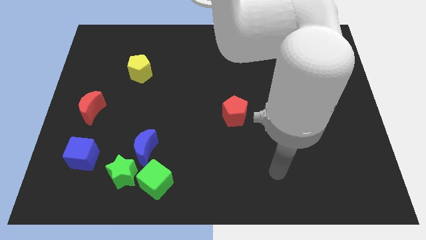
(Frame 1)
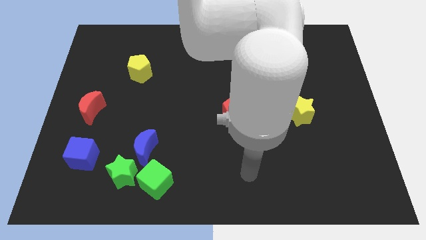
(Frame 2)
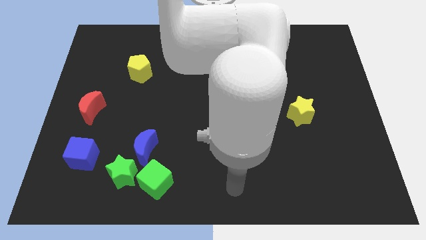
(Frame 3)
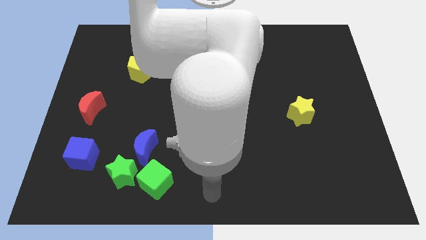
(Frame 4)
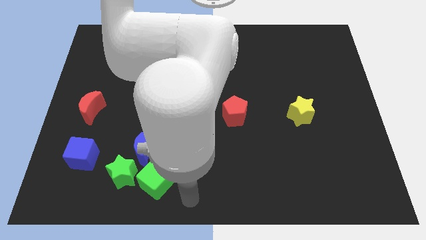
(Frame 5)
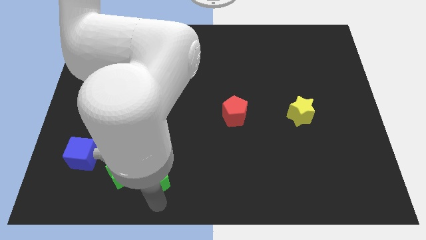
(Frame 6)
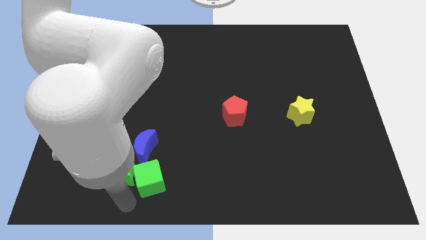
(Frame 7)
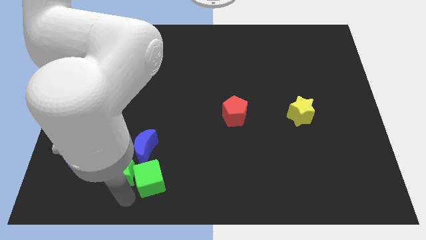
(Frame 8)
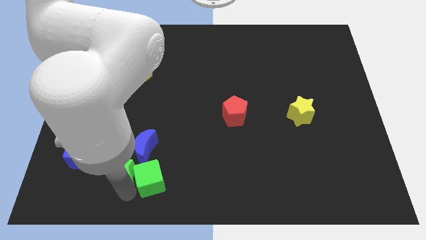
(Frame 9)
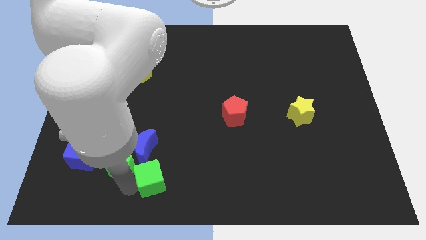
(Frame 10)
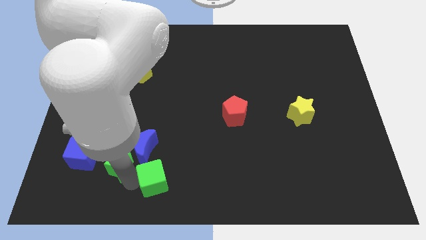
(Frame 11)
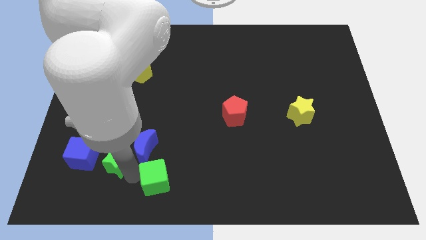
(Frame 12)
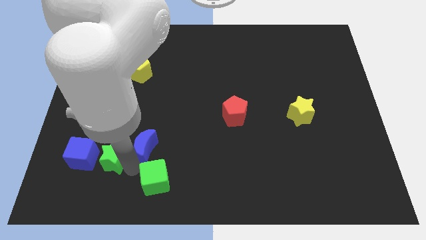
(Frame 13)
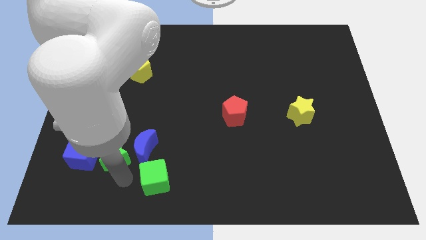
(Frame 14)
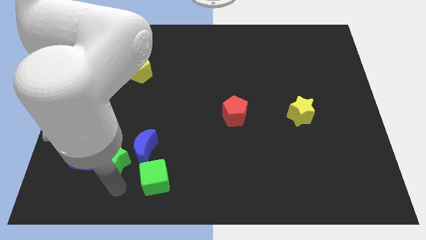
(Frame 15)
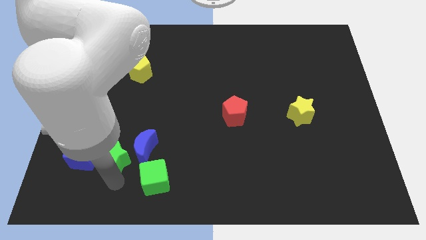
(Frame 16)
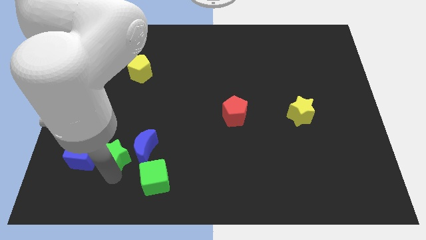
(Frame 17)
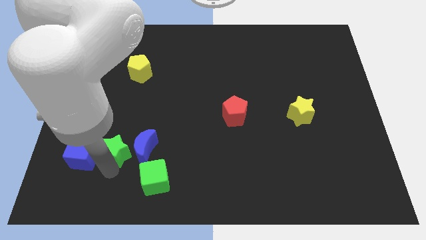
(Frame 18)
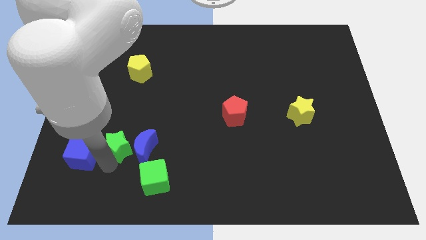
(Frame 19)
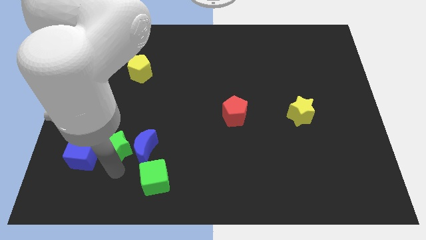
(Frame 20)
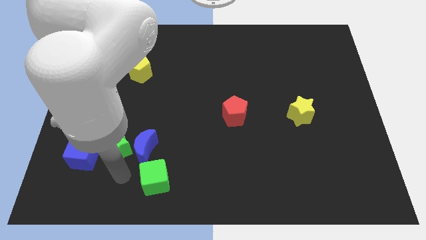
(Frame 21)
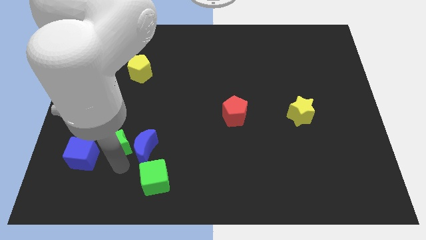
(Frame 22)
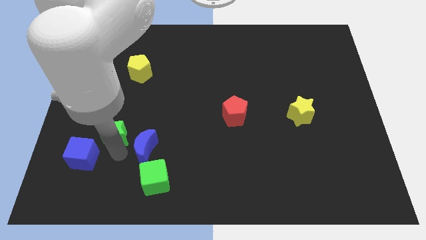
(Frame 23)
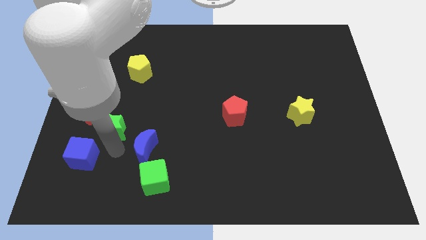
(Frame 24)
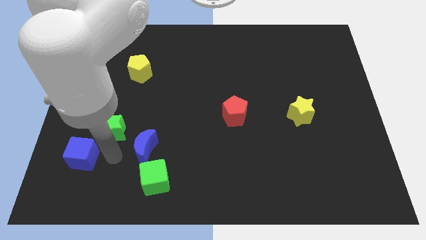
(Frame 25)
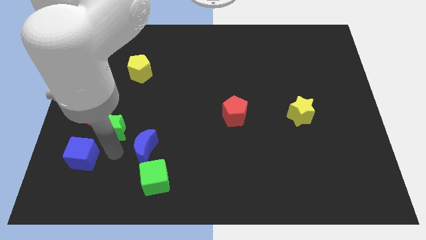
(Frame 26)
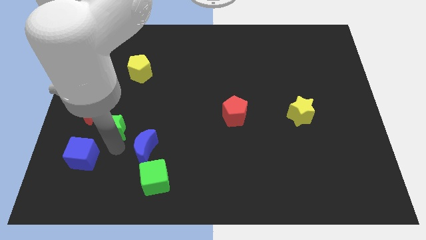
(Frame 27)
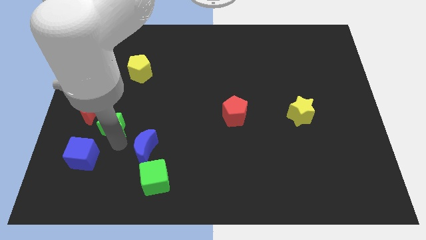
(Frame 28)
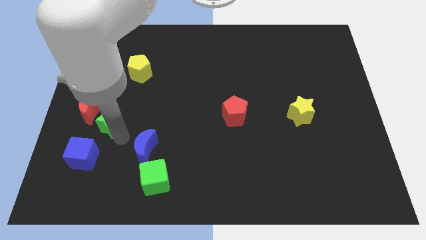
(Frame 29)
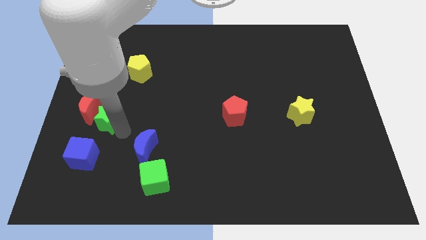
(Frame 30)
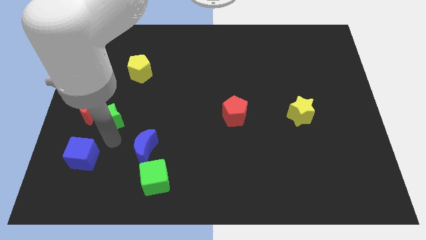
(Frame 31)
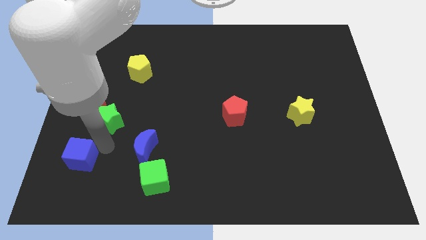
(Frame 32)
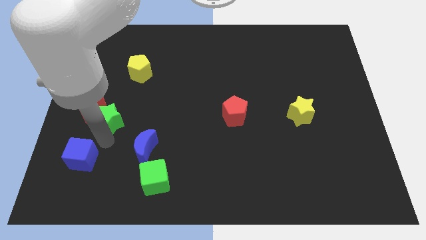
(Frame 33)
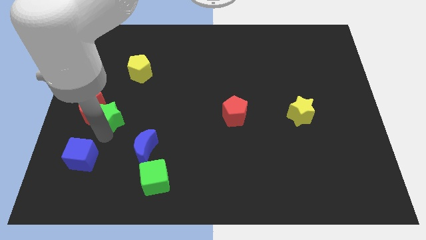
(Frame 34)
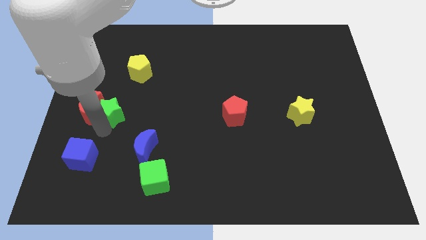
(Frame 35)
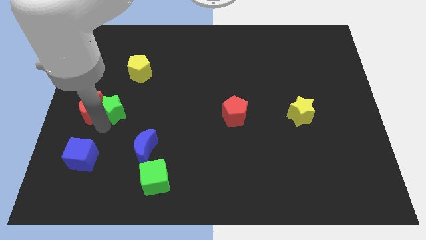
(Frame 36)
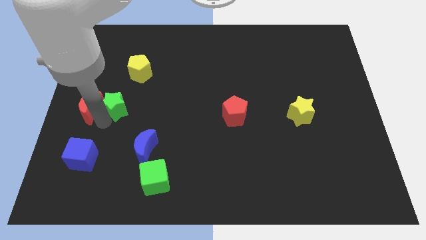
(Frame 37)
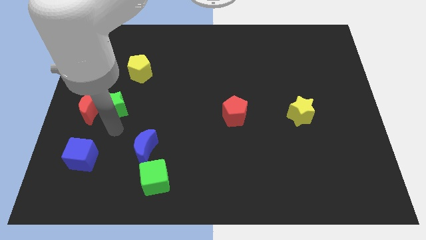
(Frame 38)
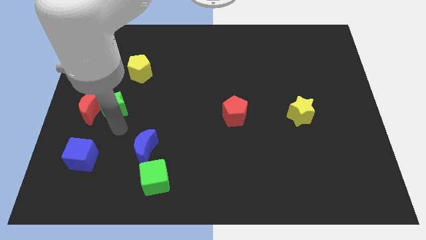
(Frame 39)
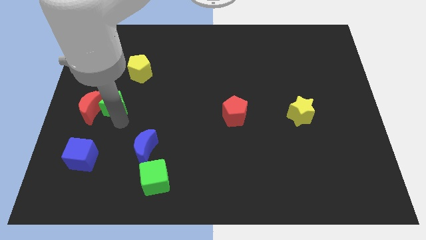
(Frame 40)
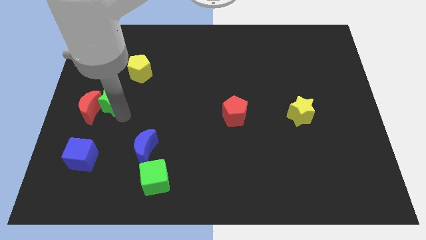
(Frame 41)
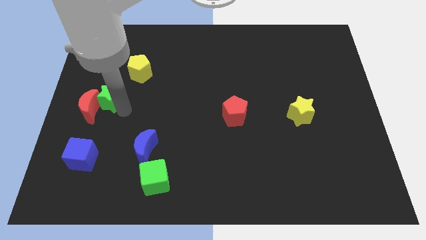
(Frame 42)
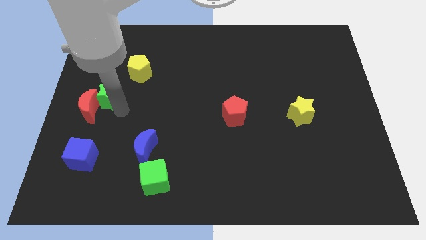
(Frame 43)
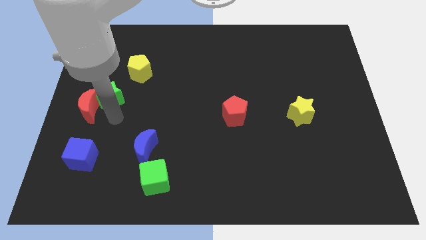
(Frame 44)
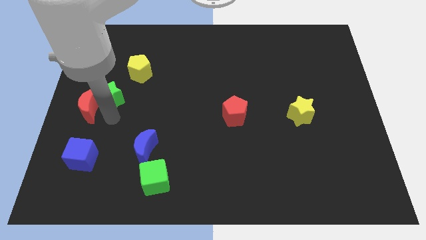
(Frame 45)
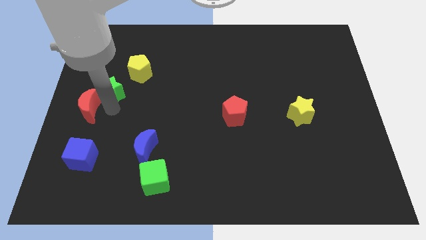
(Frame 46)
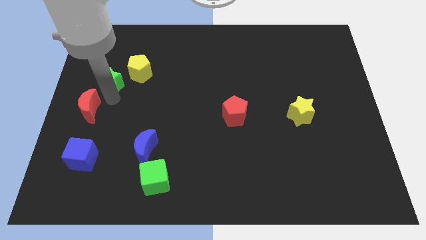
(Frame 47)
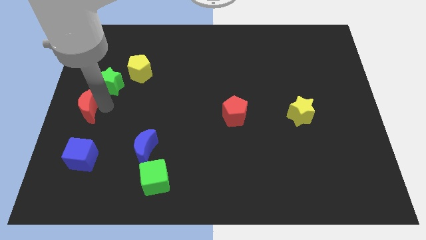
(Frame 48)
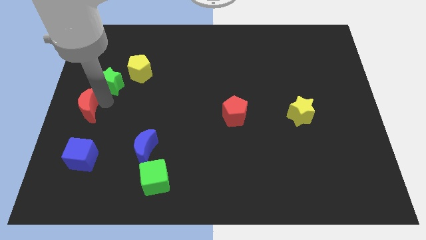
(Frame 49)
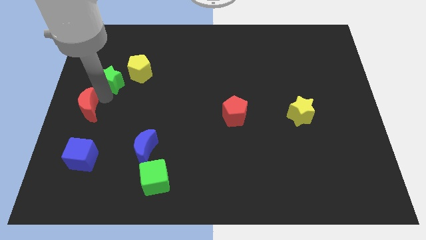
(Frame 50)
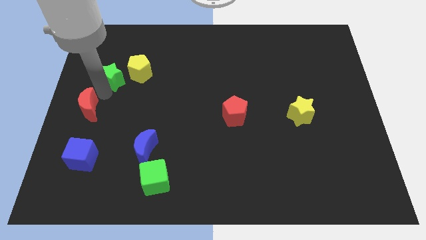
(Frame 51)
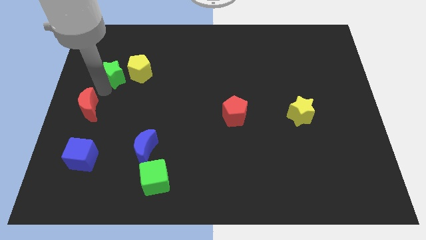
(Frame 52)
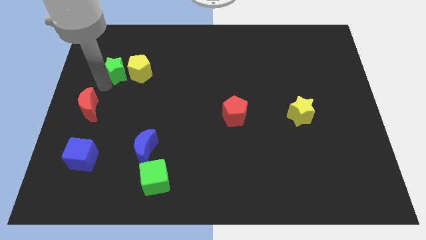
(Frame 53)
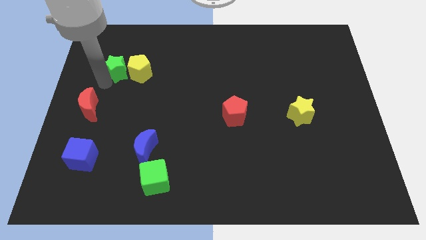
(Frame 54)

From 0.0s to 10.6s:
move the green star to the top left of the yellow pentagon
